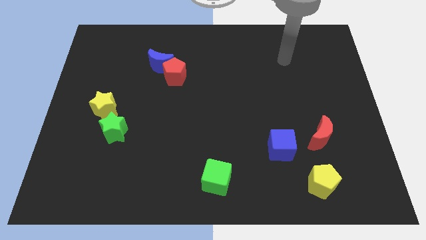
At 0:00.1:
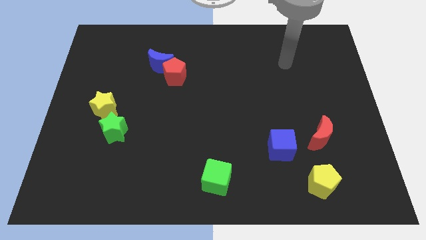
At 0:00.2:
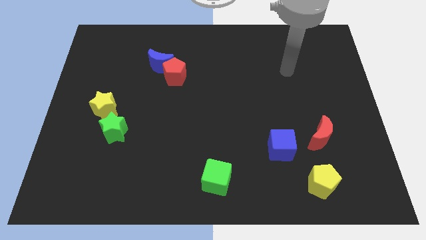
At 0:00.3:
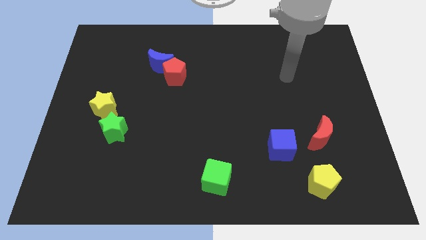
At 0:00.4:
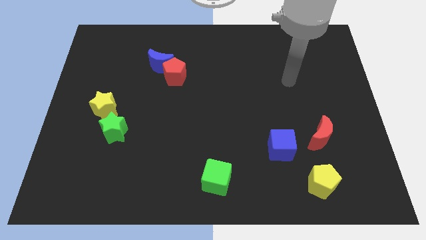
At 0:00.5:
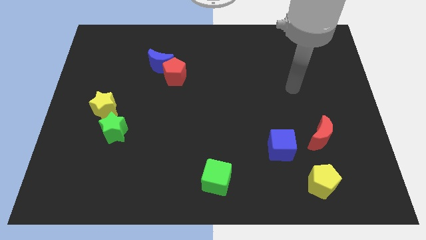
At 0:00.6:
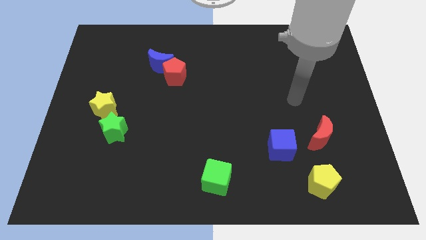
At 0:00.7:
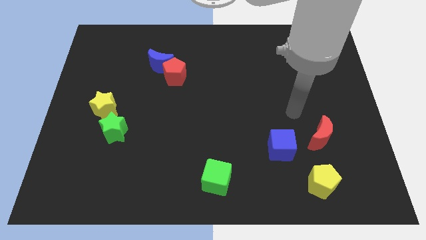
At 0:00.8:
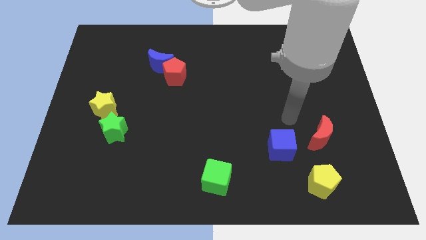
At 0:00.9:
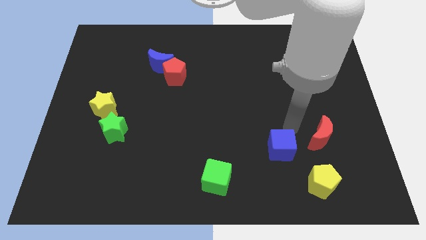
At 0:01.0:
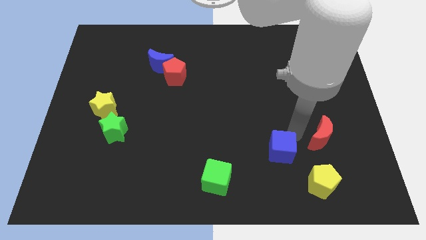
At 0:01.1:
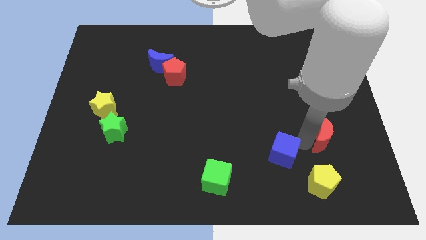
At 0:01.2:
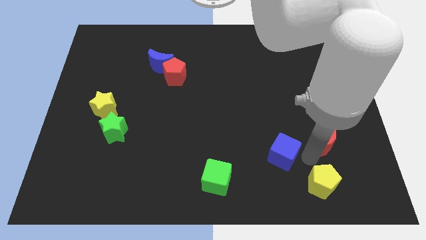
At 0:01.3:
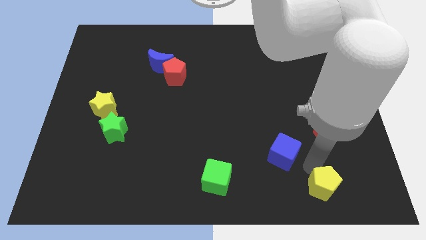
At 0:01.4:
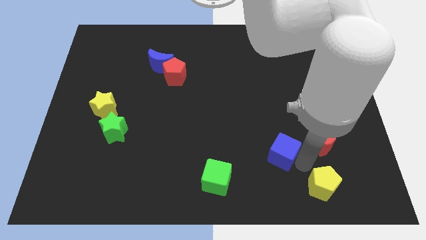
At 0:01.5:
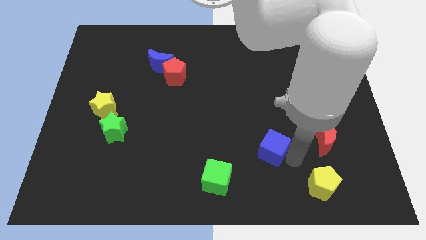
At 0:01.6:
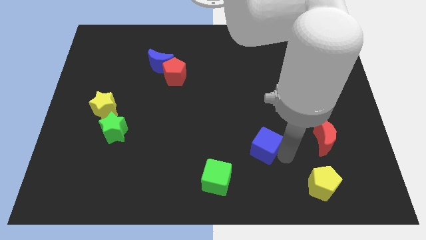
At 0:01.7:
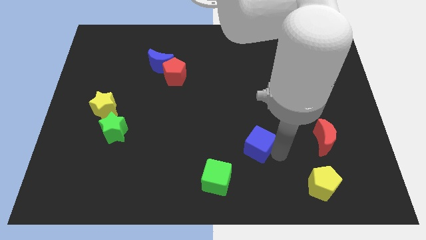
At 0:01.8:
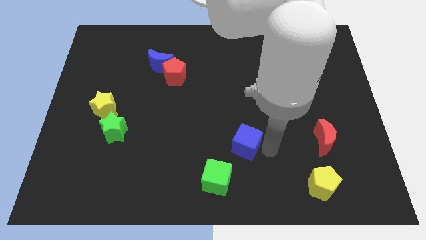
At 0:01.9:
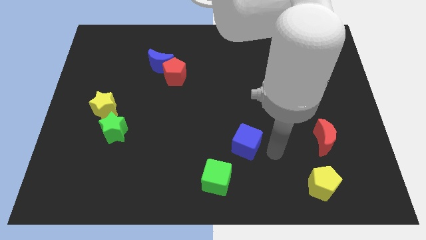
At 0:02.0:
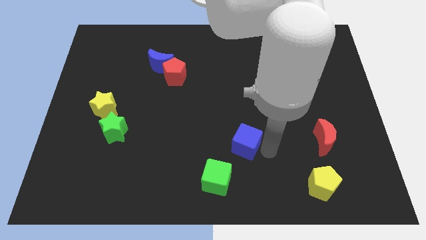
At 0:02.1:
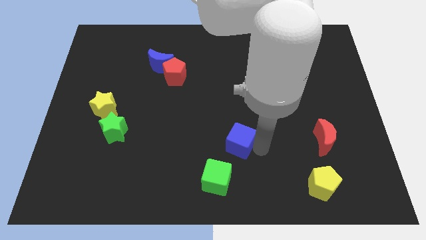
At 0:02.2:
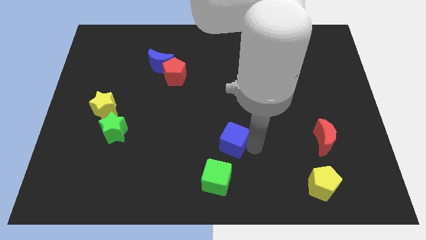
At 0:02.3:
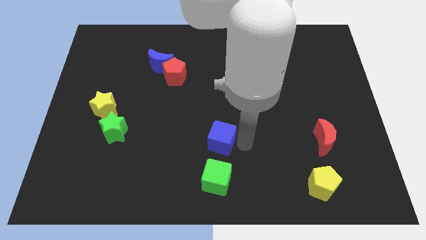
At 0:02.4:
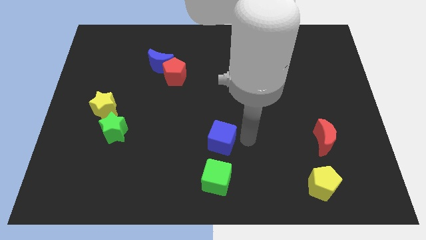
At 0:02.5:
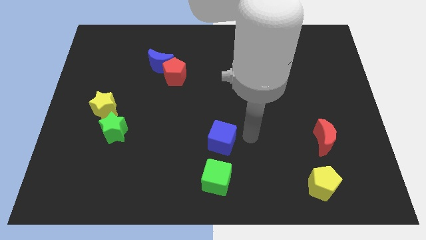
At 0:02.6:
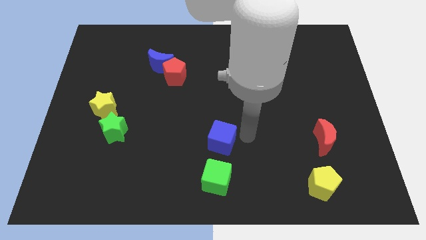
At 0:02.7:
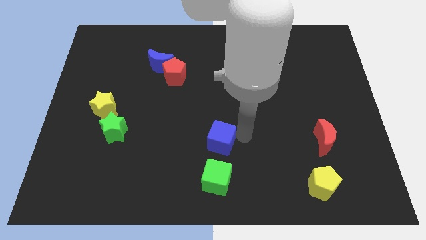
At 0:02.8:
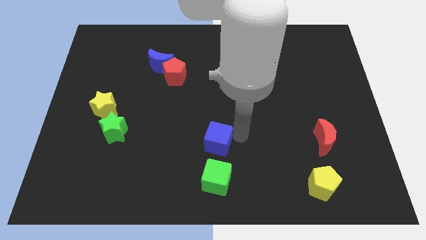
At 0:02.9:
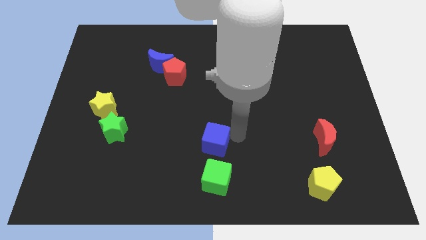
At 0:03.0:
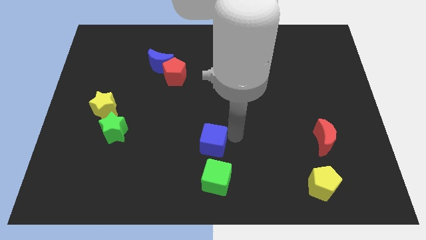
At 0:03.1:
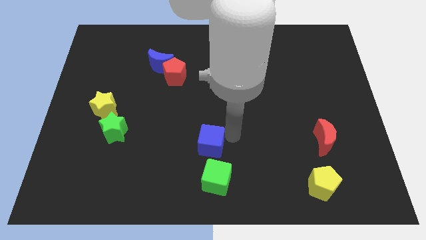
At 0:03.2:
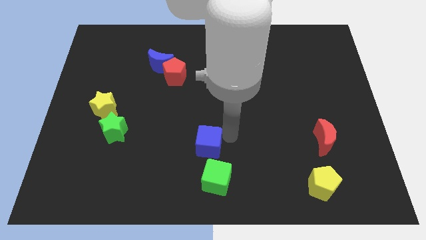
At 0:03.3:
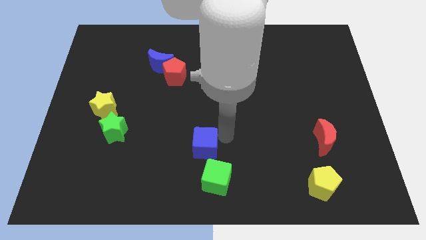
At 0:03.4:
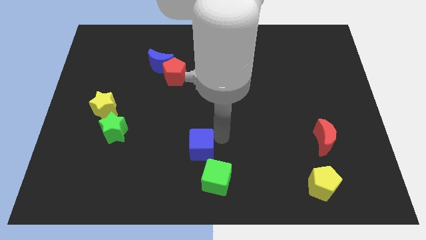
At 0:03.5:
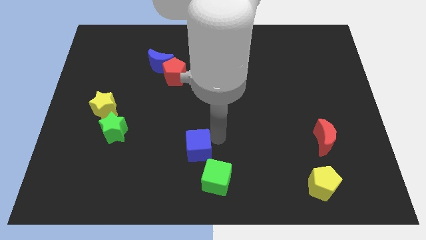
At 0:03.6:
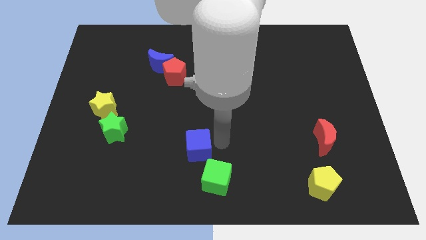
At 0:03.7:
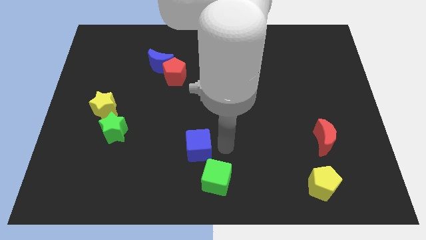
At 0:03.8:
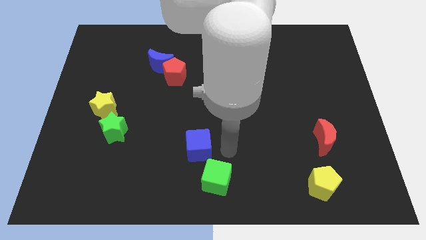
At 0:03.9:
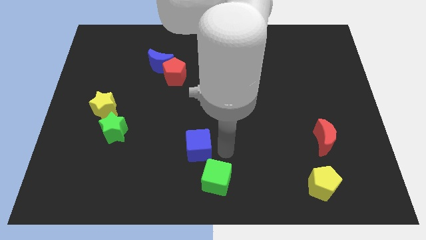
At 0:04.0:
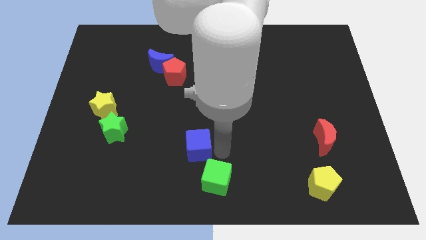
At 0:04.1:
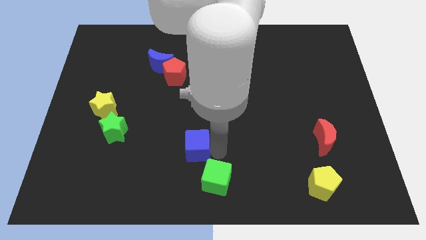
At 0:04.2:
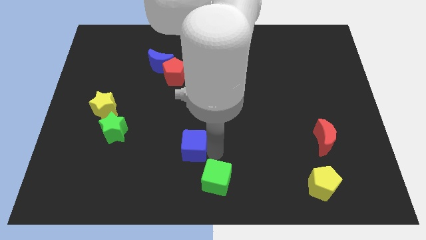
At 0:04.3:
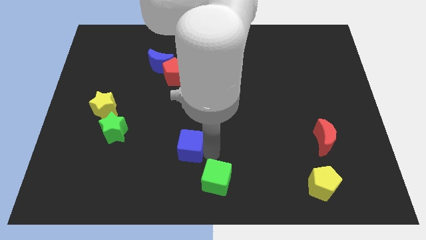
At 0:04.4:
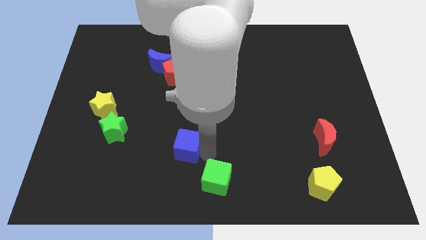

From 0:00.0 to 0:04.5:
push the blue cube to the left

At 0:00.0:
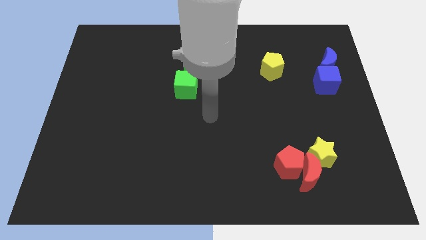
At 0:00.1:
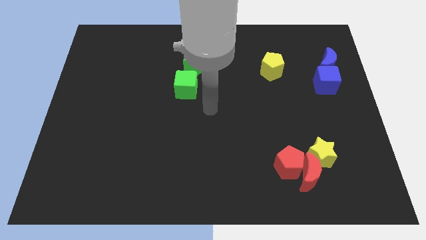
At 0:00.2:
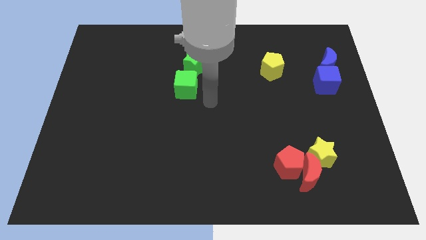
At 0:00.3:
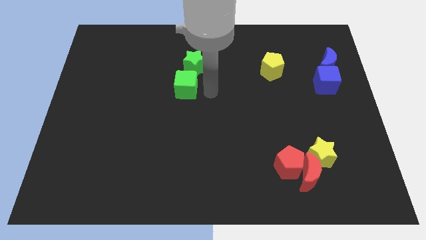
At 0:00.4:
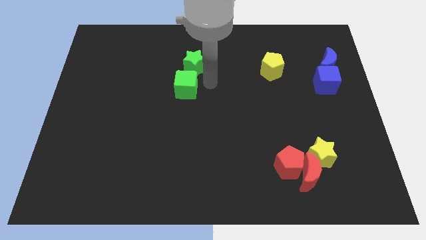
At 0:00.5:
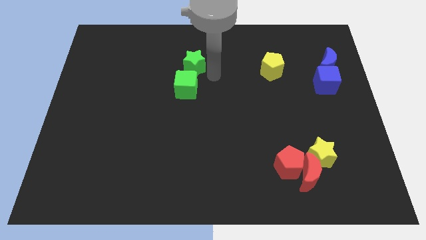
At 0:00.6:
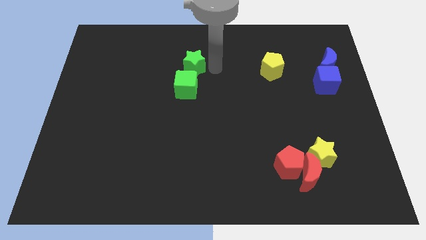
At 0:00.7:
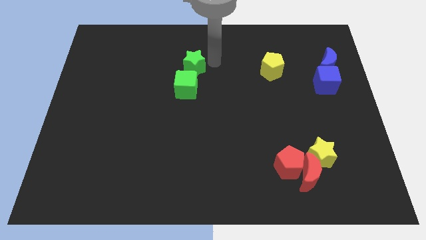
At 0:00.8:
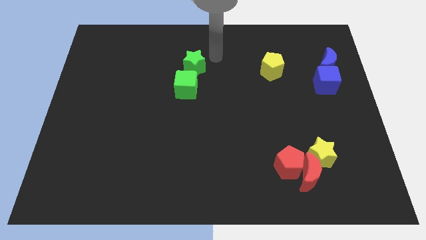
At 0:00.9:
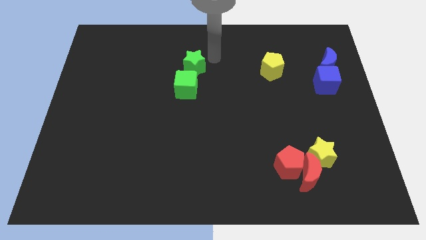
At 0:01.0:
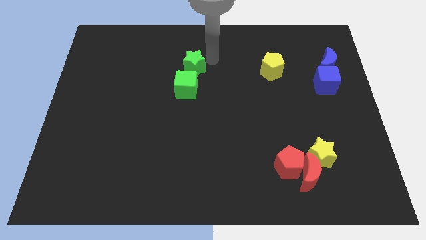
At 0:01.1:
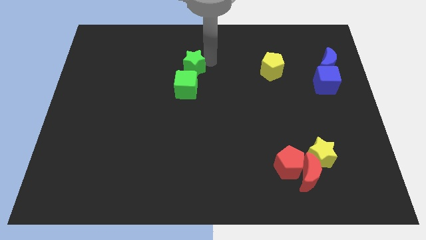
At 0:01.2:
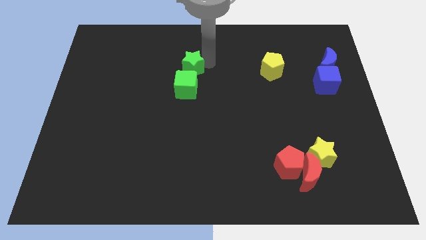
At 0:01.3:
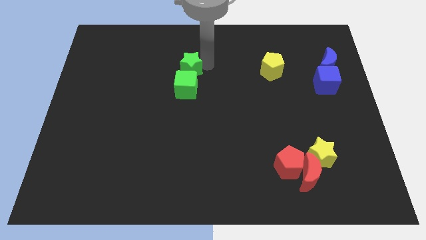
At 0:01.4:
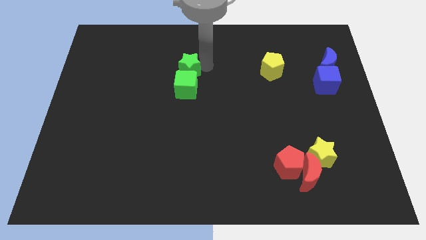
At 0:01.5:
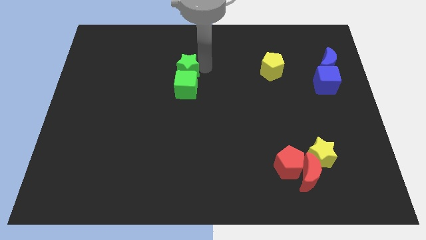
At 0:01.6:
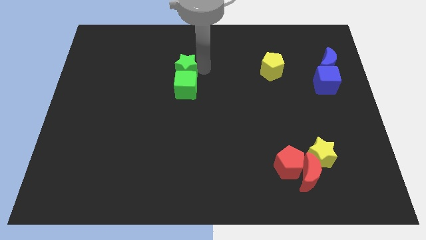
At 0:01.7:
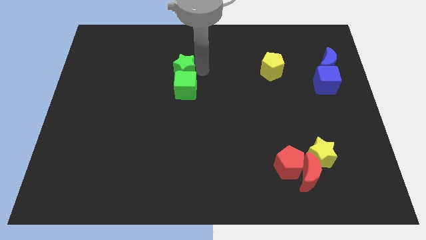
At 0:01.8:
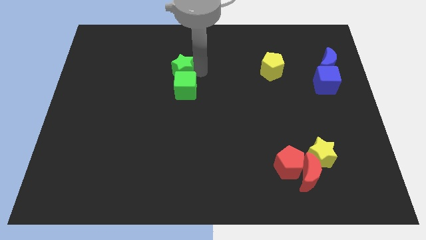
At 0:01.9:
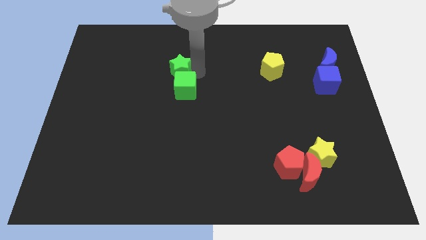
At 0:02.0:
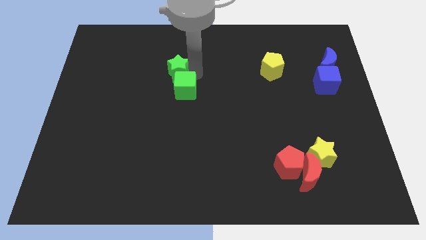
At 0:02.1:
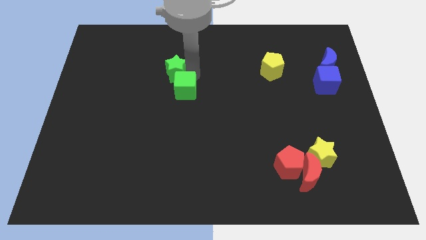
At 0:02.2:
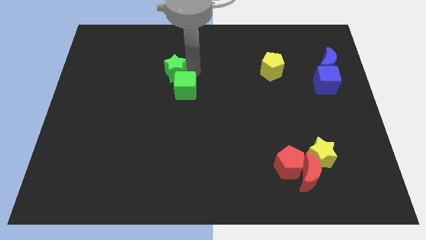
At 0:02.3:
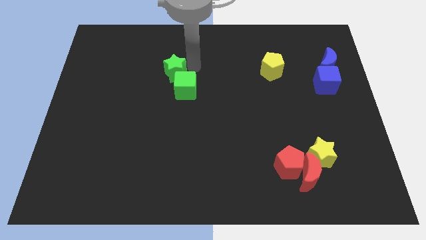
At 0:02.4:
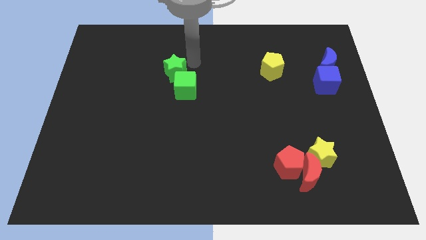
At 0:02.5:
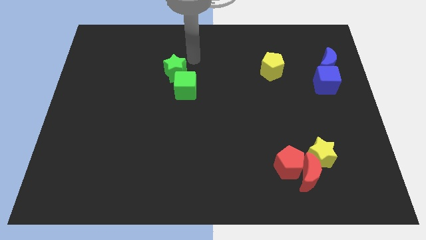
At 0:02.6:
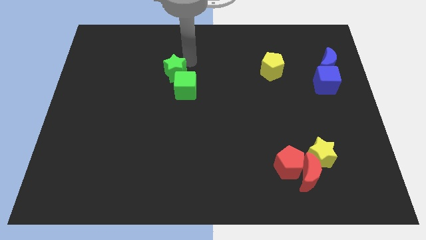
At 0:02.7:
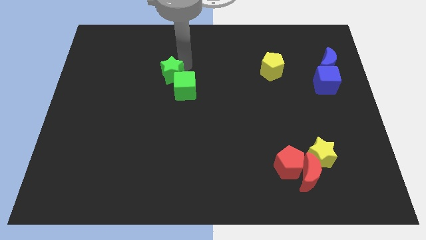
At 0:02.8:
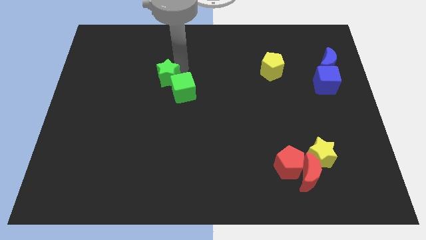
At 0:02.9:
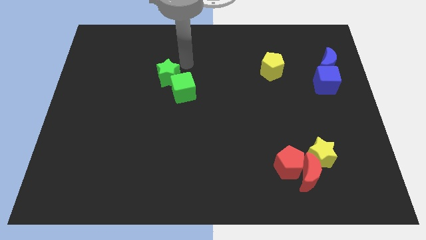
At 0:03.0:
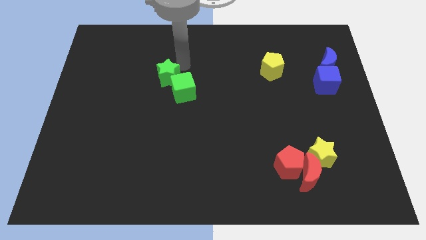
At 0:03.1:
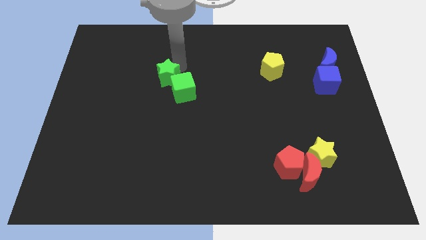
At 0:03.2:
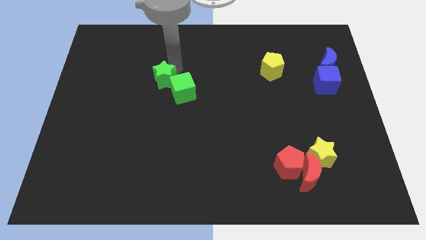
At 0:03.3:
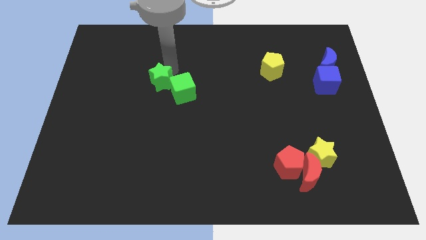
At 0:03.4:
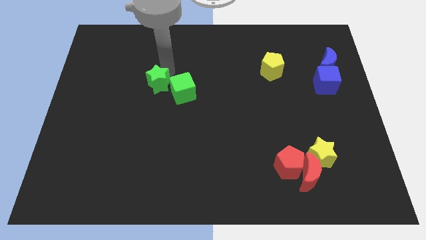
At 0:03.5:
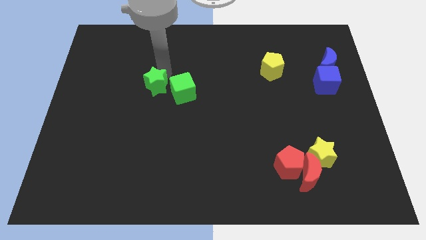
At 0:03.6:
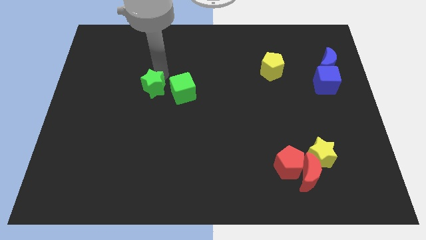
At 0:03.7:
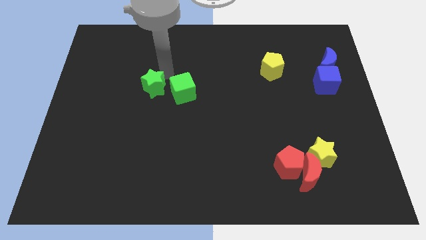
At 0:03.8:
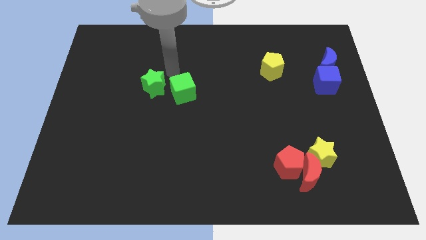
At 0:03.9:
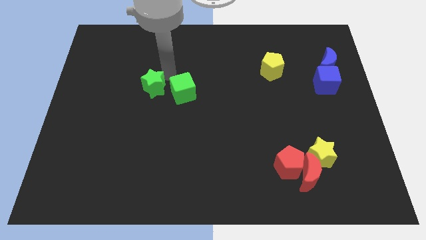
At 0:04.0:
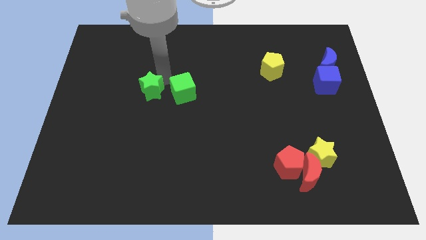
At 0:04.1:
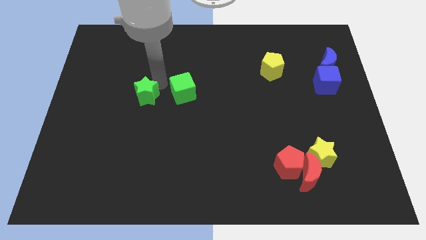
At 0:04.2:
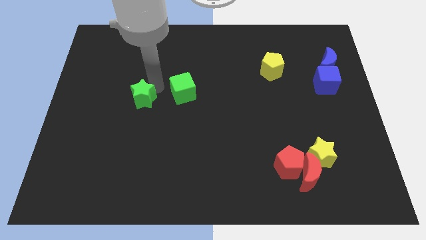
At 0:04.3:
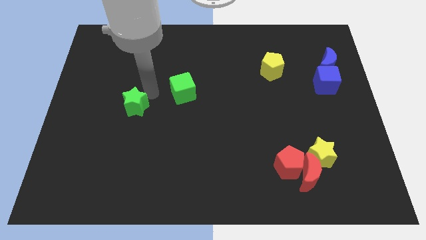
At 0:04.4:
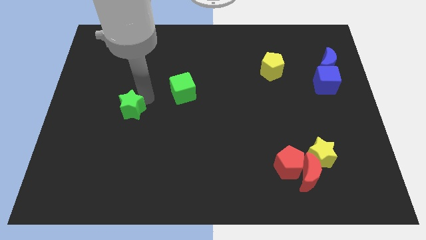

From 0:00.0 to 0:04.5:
push the green star downwards and then to the left
